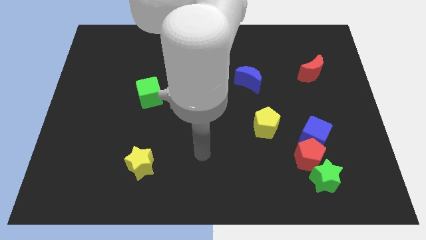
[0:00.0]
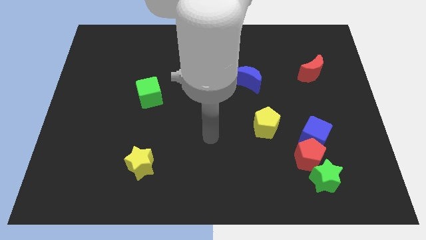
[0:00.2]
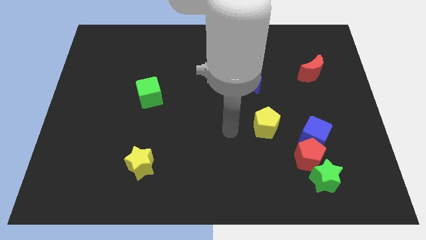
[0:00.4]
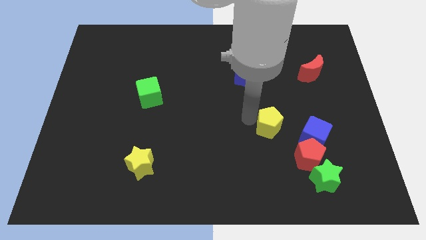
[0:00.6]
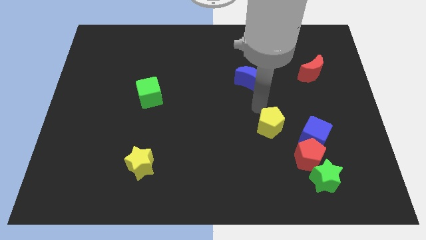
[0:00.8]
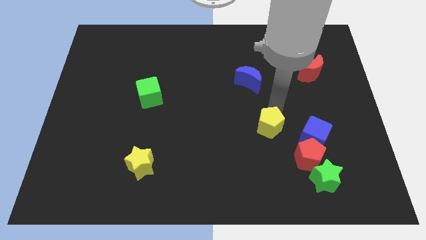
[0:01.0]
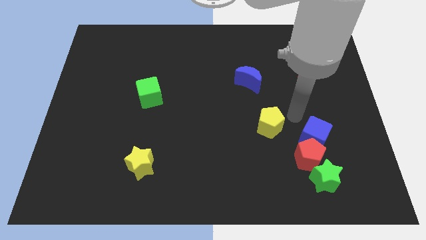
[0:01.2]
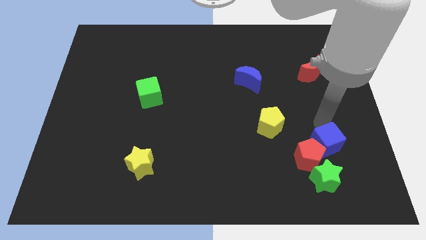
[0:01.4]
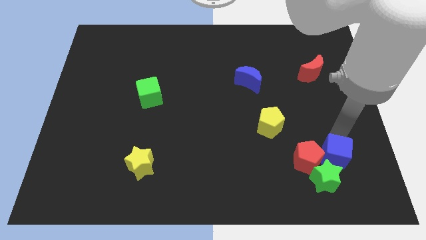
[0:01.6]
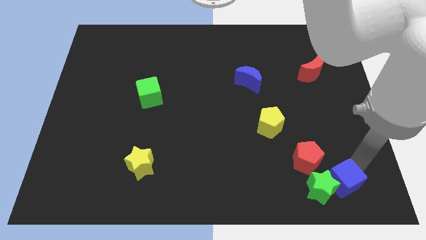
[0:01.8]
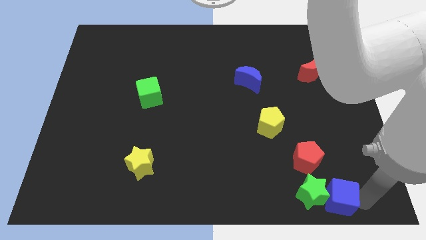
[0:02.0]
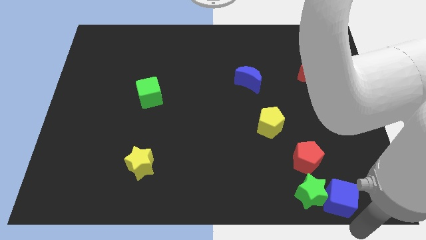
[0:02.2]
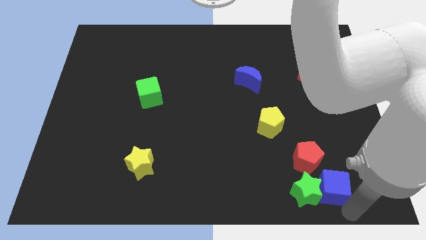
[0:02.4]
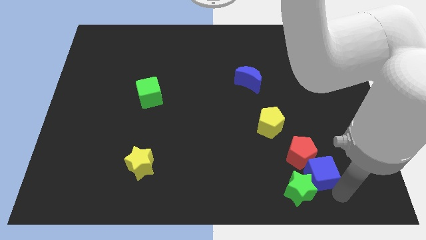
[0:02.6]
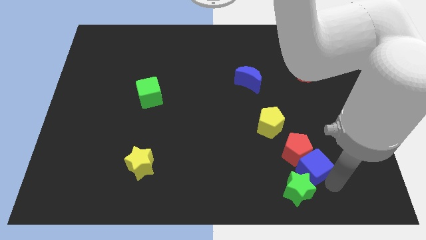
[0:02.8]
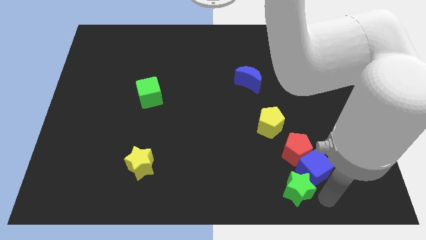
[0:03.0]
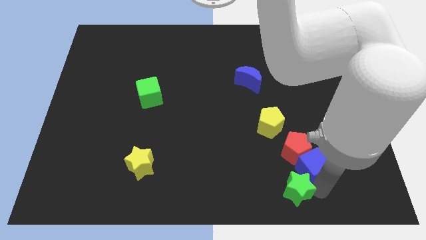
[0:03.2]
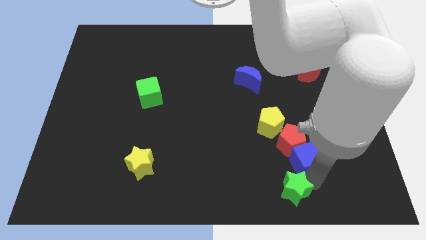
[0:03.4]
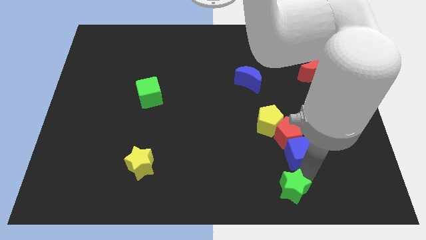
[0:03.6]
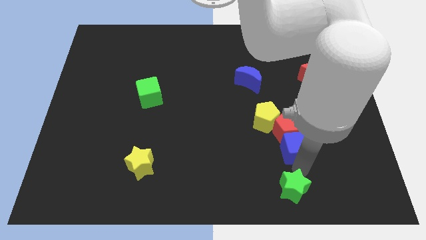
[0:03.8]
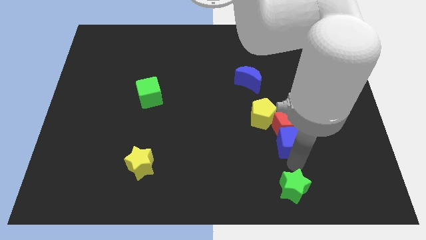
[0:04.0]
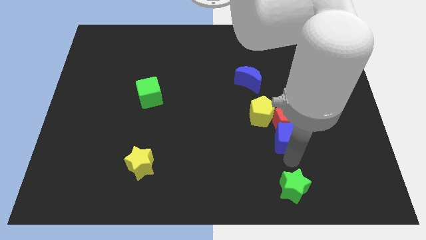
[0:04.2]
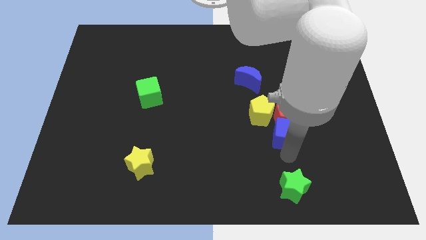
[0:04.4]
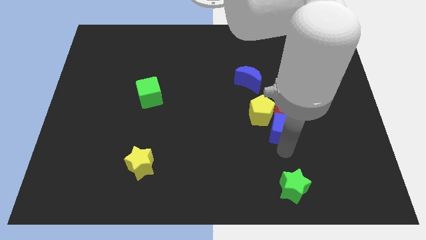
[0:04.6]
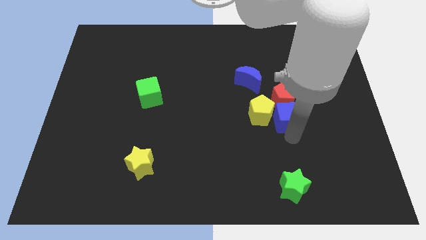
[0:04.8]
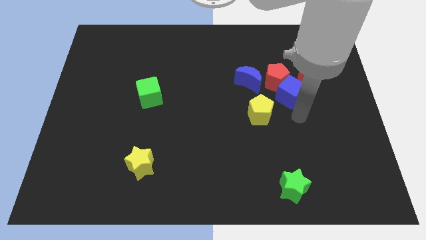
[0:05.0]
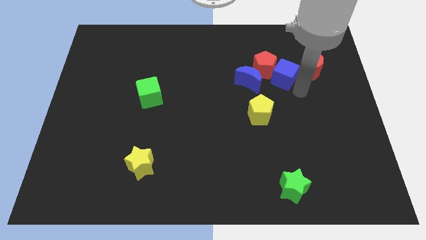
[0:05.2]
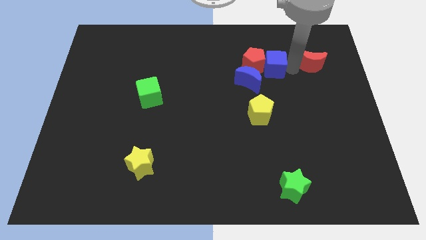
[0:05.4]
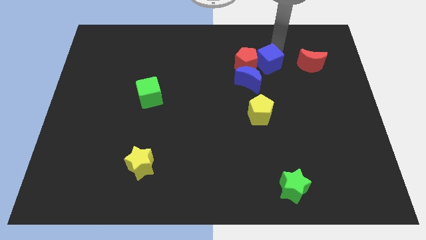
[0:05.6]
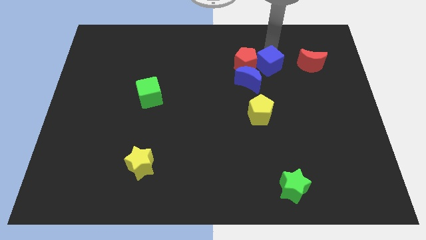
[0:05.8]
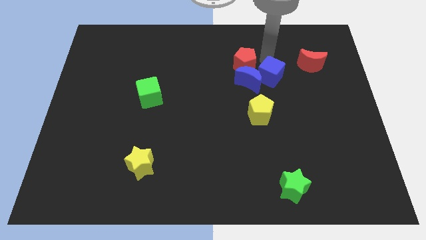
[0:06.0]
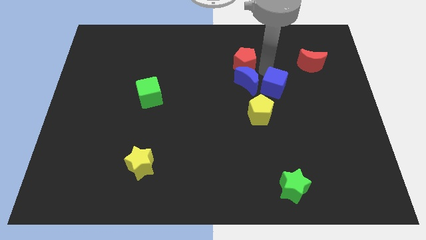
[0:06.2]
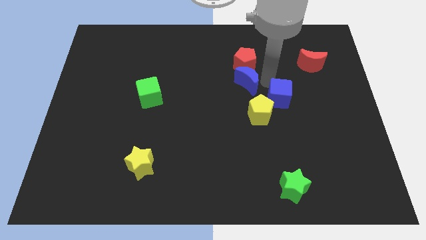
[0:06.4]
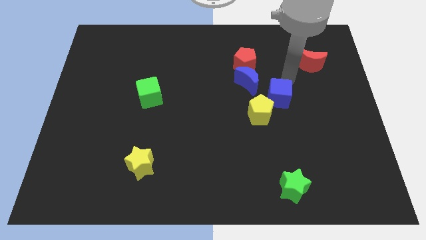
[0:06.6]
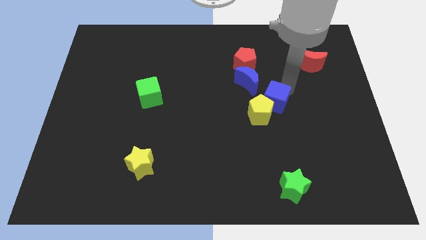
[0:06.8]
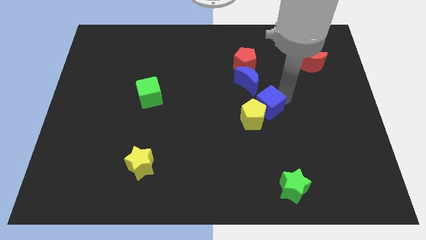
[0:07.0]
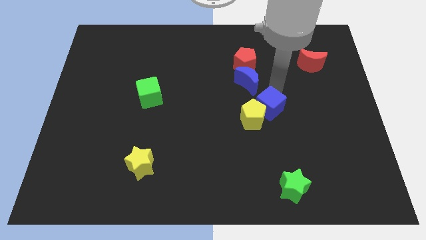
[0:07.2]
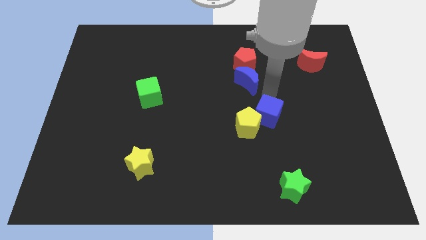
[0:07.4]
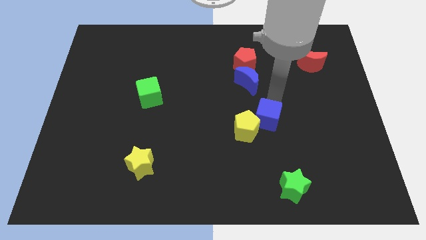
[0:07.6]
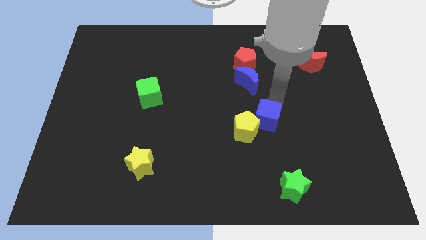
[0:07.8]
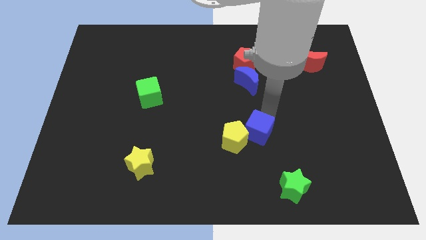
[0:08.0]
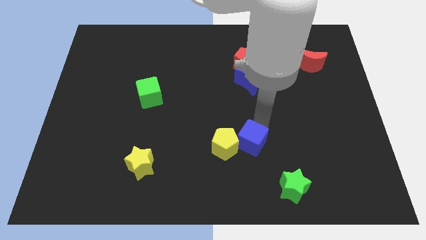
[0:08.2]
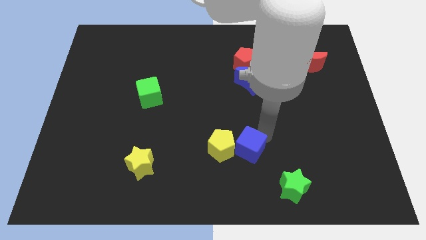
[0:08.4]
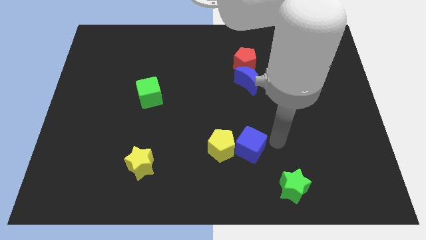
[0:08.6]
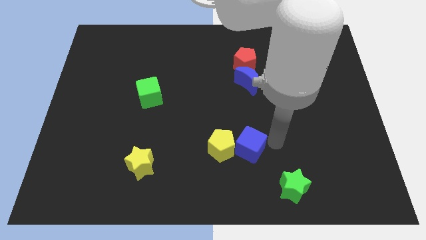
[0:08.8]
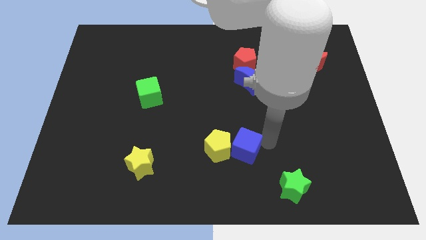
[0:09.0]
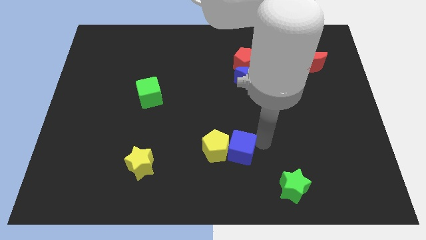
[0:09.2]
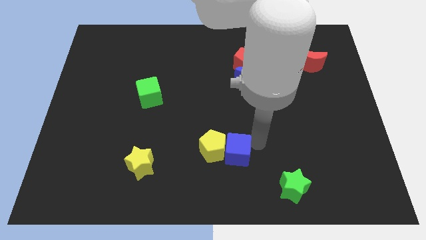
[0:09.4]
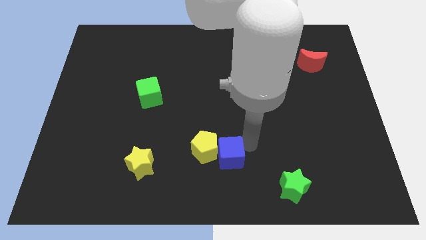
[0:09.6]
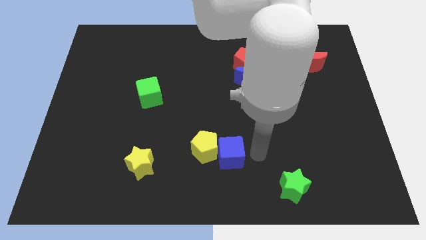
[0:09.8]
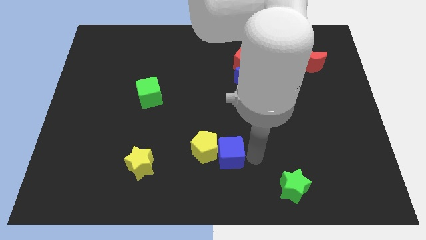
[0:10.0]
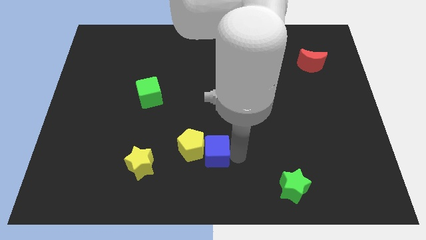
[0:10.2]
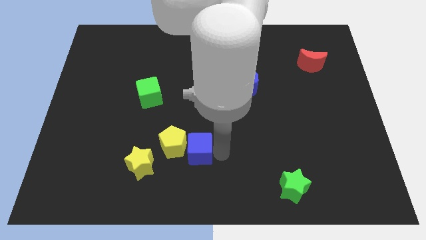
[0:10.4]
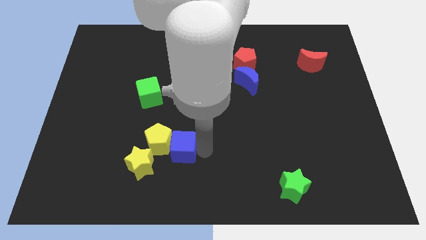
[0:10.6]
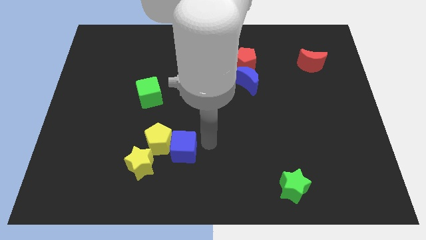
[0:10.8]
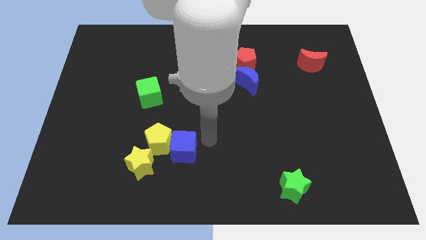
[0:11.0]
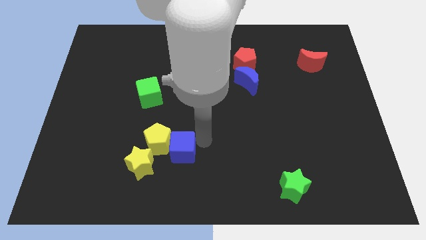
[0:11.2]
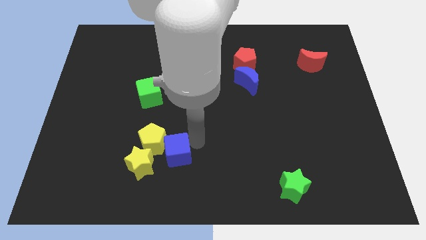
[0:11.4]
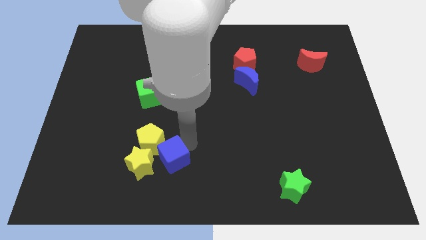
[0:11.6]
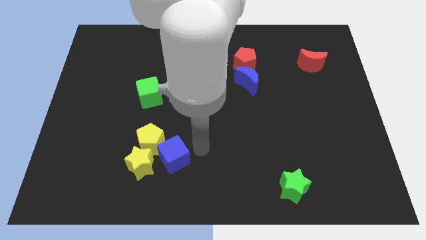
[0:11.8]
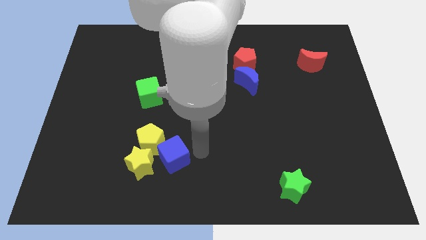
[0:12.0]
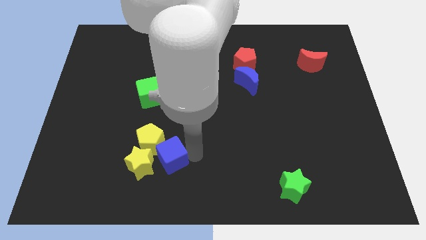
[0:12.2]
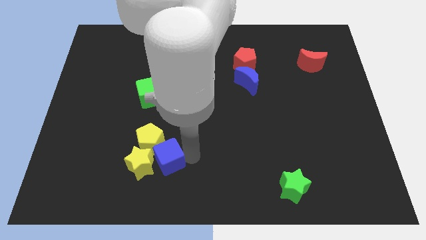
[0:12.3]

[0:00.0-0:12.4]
put the blue cube towards the yellow star

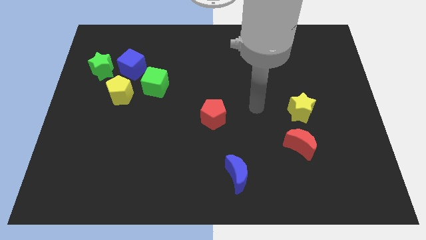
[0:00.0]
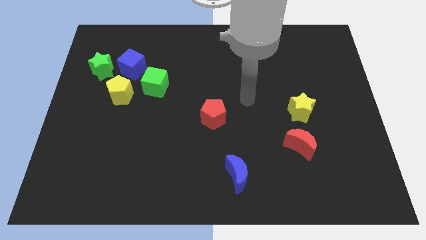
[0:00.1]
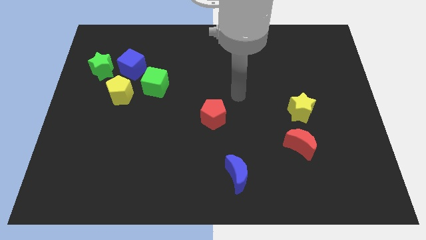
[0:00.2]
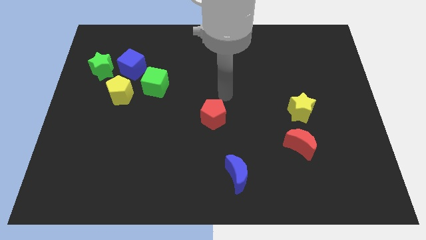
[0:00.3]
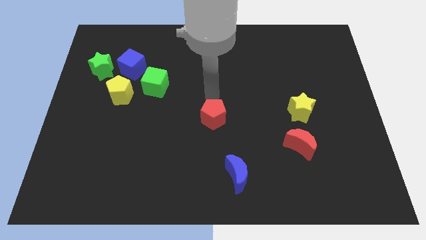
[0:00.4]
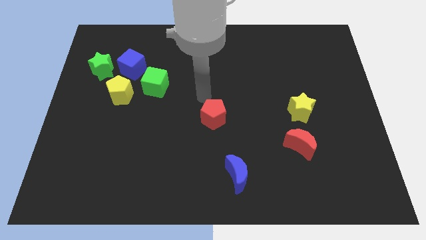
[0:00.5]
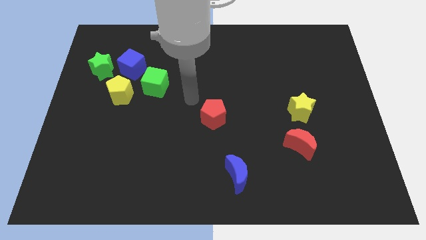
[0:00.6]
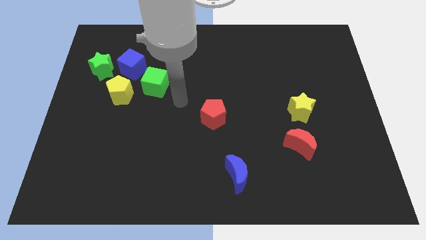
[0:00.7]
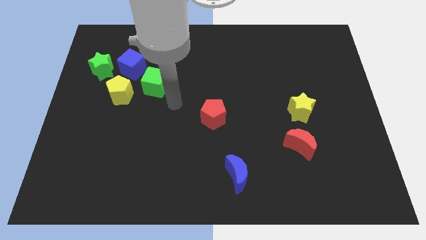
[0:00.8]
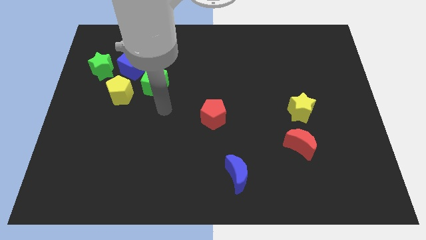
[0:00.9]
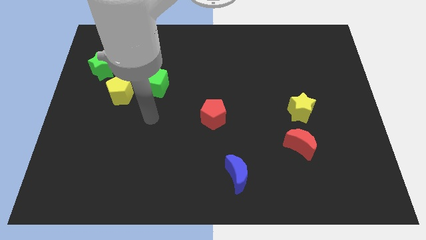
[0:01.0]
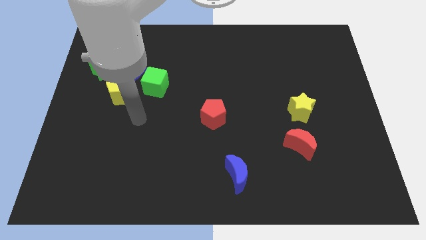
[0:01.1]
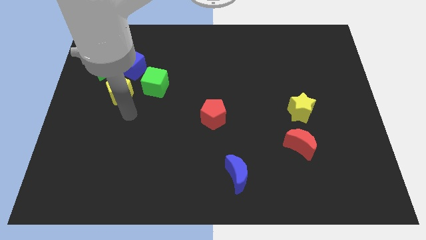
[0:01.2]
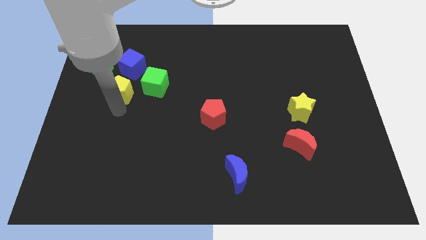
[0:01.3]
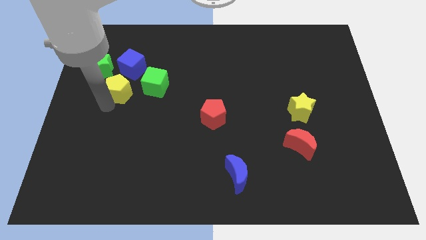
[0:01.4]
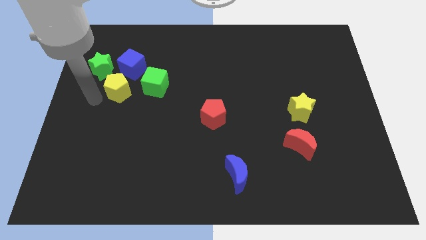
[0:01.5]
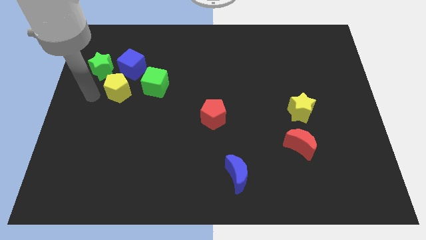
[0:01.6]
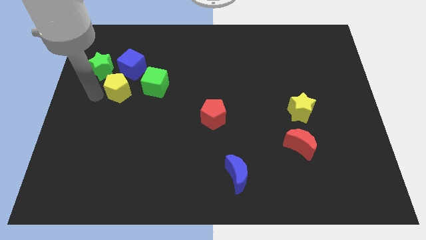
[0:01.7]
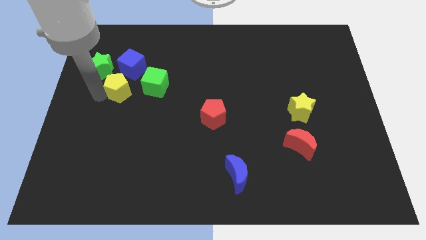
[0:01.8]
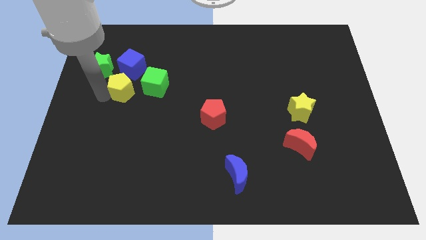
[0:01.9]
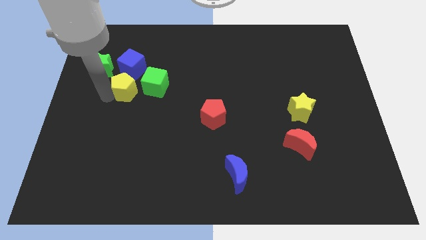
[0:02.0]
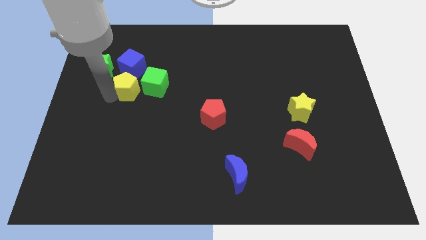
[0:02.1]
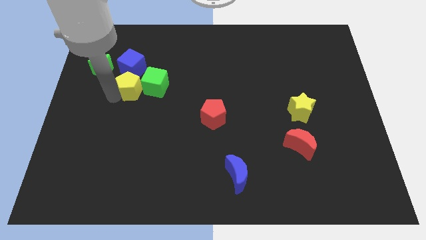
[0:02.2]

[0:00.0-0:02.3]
move the yellow pentagon close to the green cube
